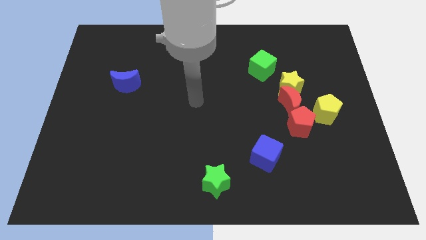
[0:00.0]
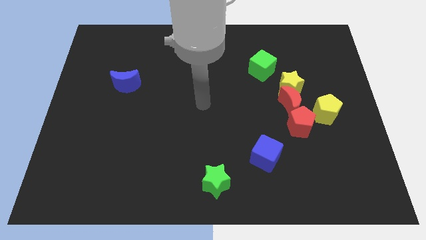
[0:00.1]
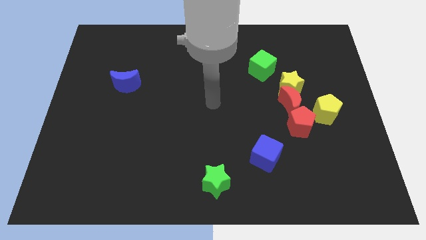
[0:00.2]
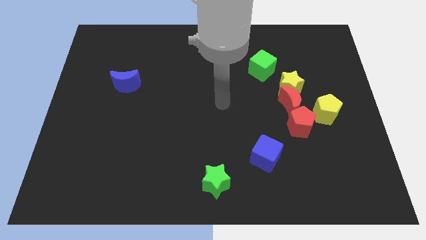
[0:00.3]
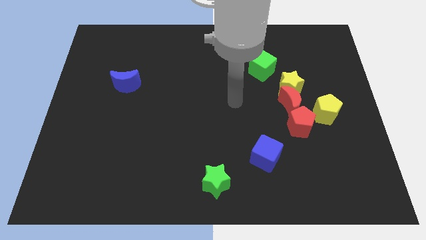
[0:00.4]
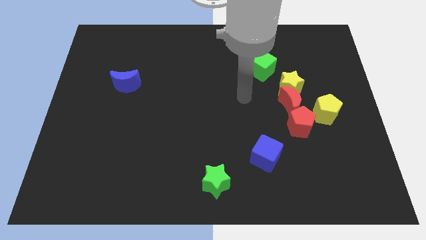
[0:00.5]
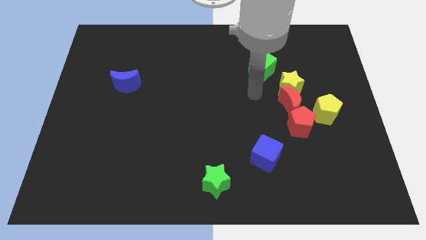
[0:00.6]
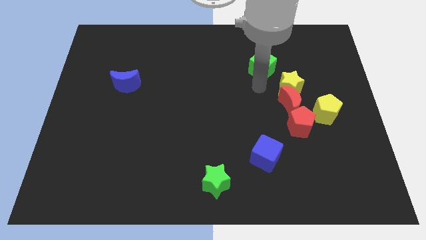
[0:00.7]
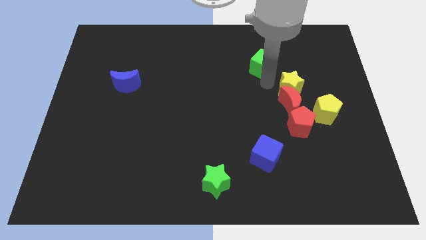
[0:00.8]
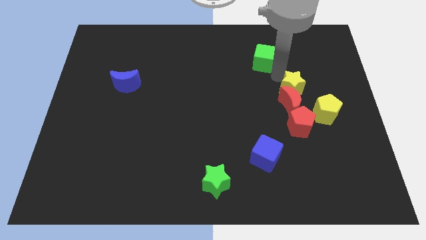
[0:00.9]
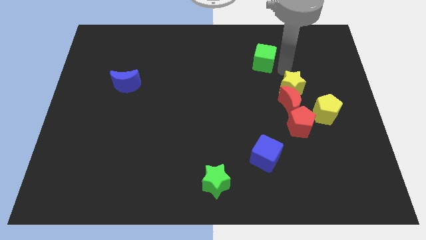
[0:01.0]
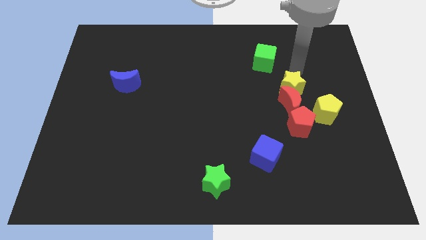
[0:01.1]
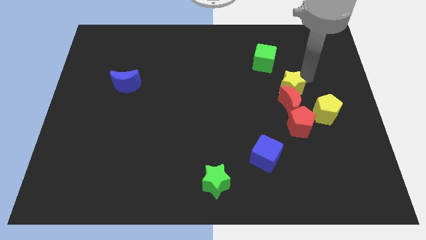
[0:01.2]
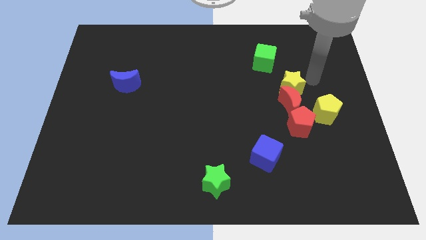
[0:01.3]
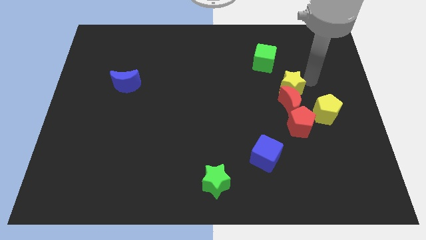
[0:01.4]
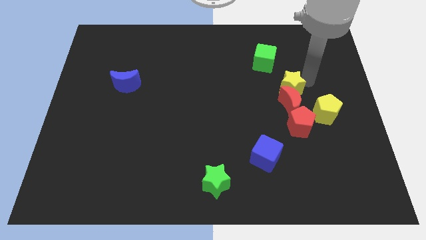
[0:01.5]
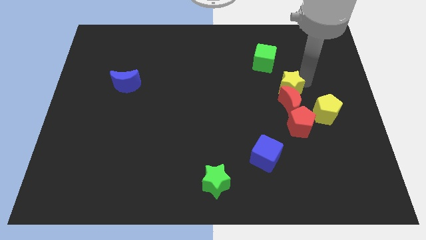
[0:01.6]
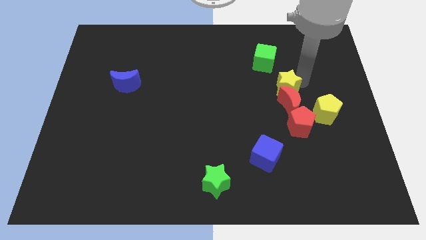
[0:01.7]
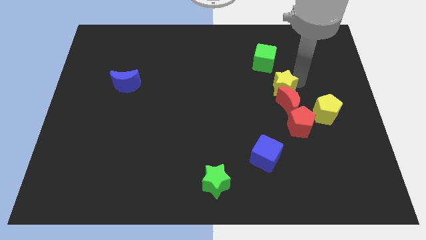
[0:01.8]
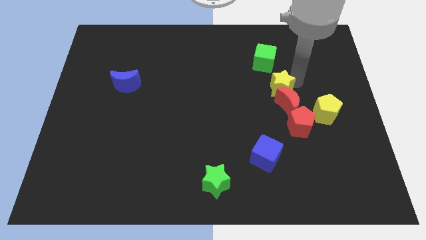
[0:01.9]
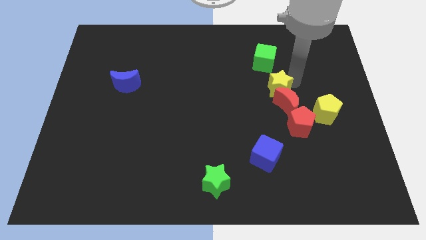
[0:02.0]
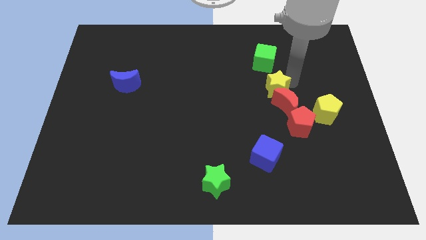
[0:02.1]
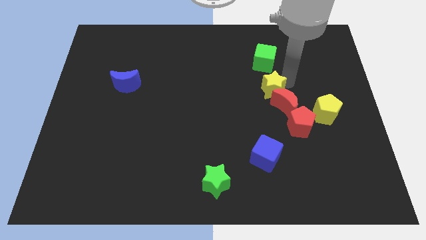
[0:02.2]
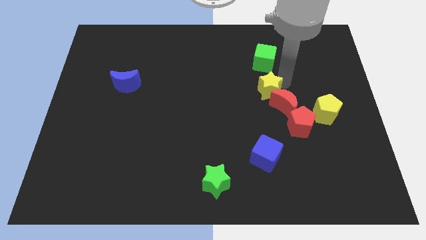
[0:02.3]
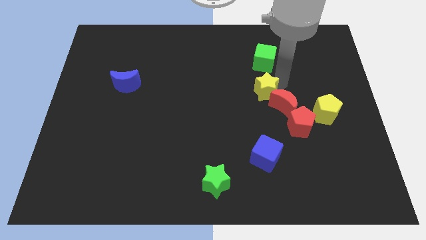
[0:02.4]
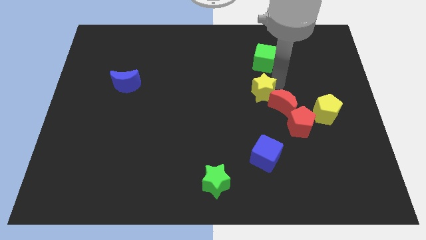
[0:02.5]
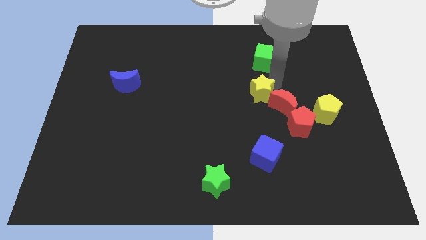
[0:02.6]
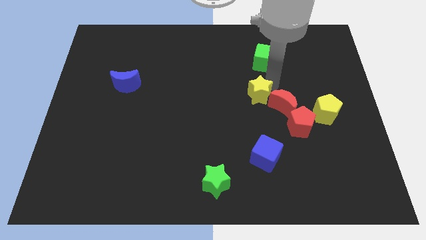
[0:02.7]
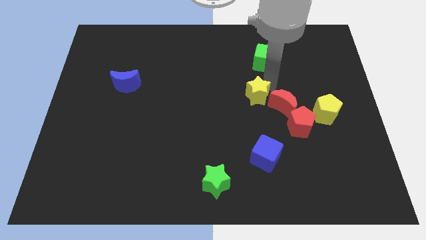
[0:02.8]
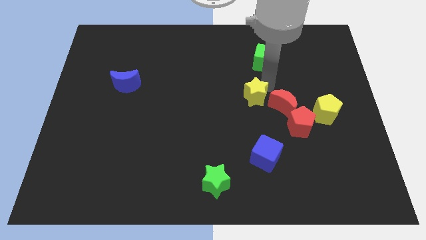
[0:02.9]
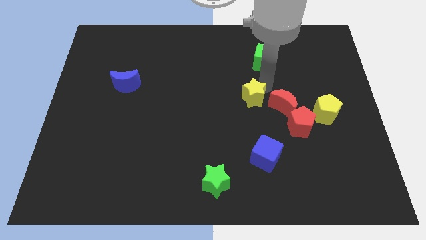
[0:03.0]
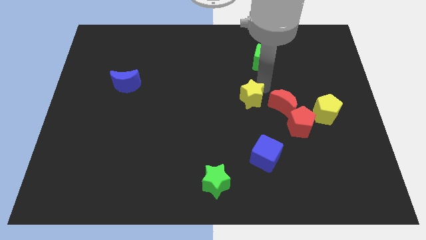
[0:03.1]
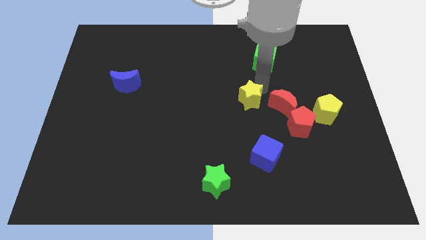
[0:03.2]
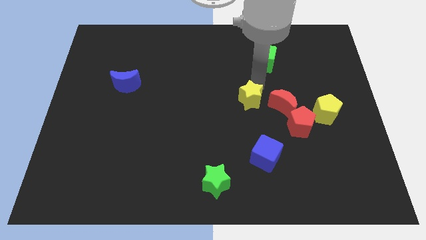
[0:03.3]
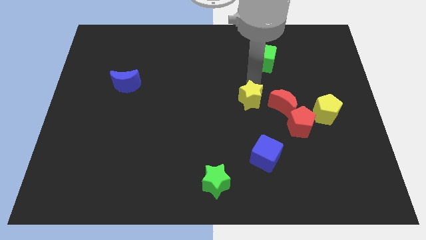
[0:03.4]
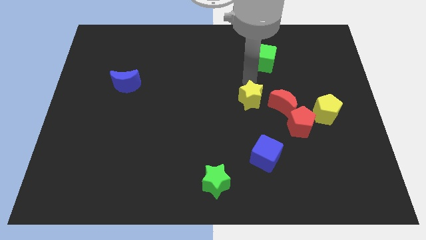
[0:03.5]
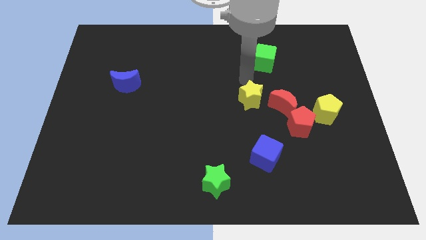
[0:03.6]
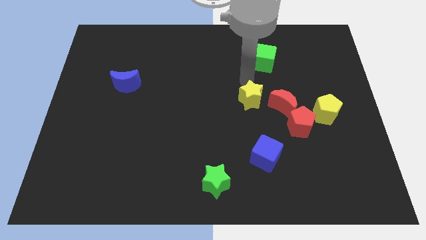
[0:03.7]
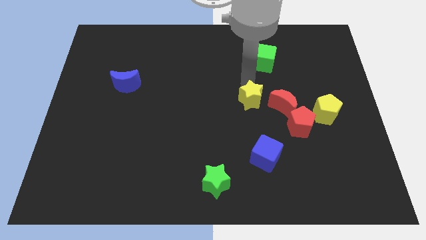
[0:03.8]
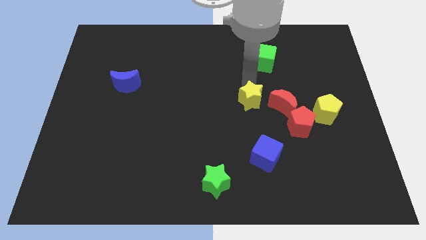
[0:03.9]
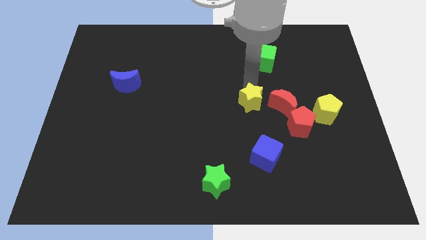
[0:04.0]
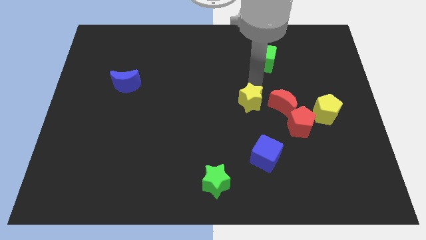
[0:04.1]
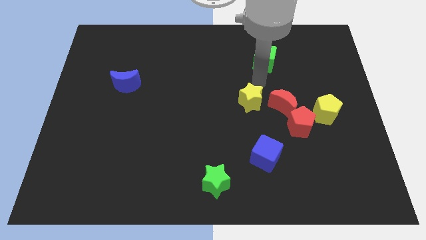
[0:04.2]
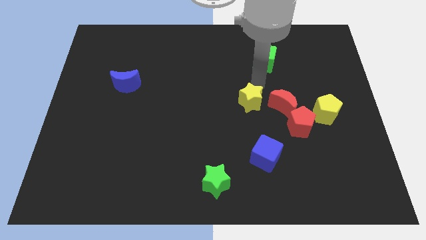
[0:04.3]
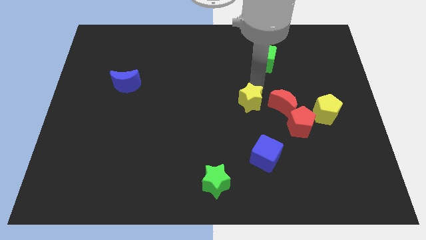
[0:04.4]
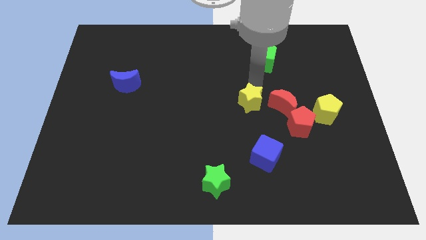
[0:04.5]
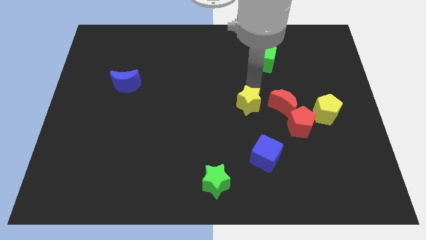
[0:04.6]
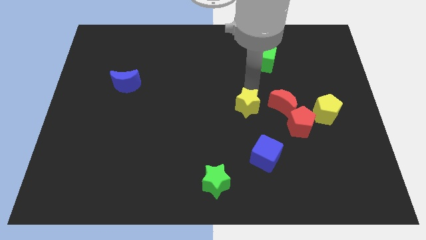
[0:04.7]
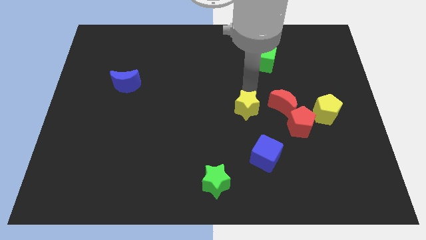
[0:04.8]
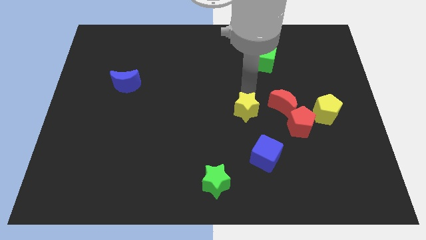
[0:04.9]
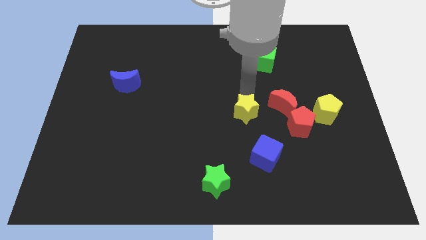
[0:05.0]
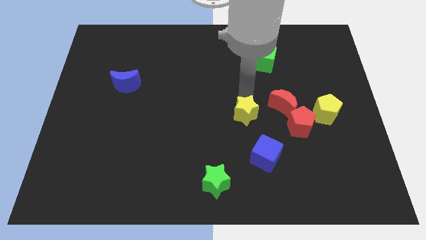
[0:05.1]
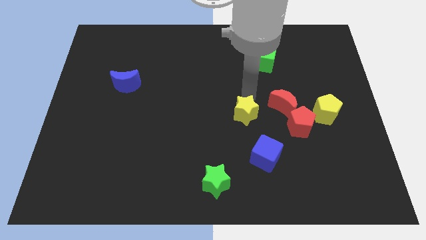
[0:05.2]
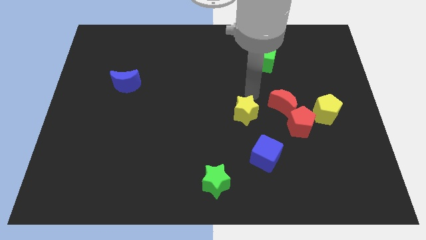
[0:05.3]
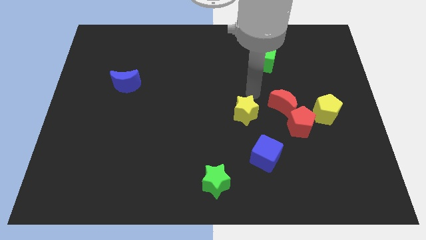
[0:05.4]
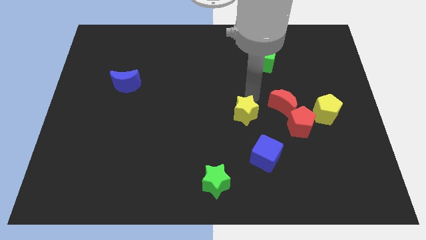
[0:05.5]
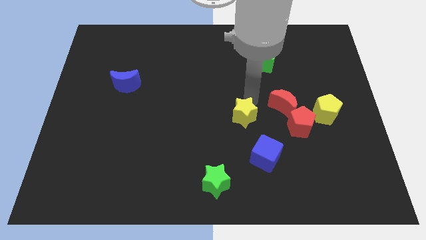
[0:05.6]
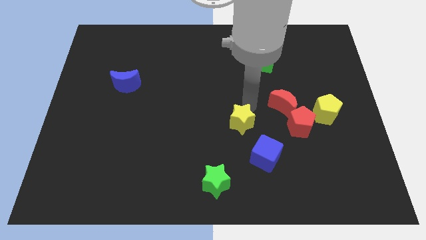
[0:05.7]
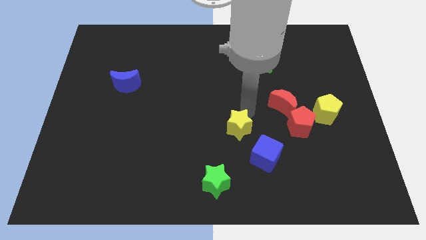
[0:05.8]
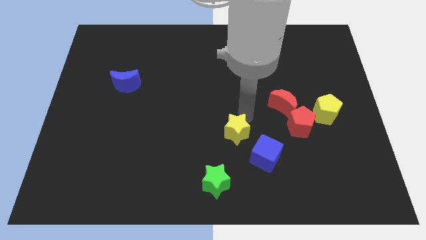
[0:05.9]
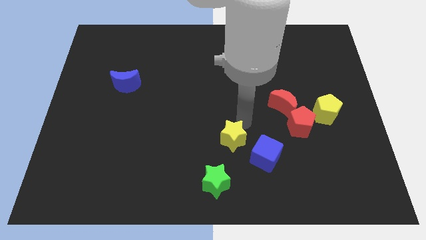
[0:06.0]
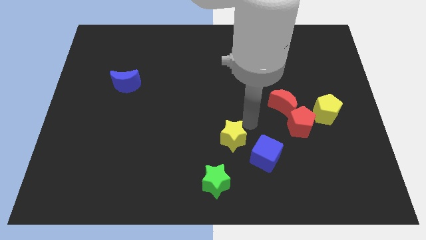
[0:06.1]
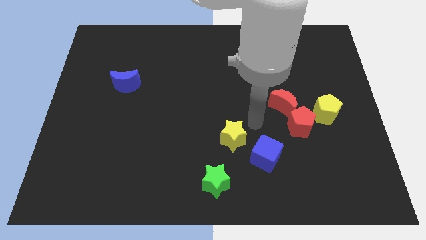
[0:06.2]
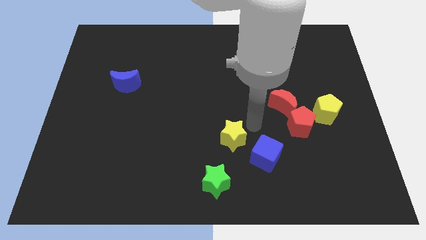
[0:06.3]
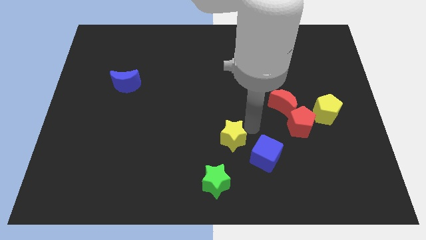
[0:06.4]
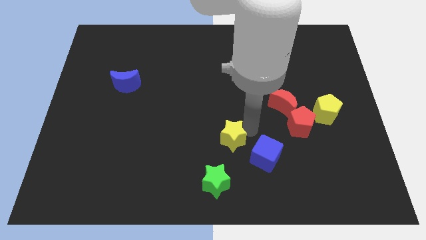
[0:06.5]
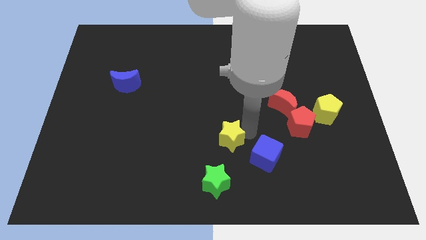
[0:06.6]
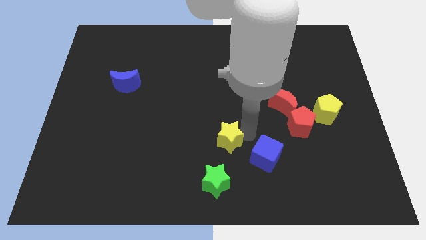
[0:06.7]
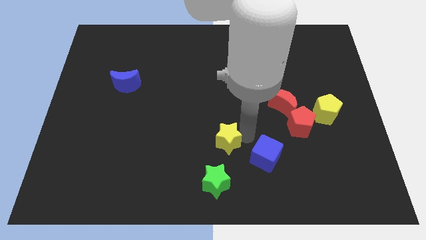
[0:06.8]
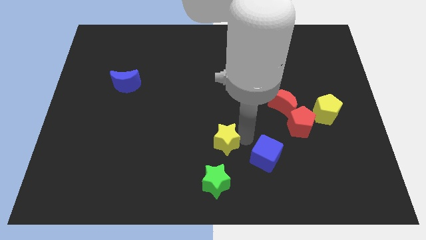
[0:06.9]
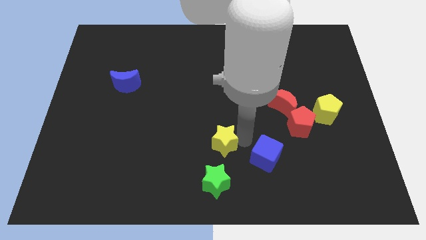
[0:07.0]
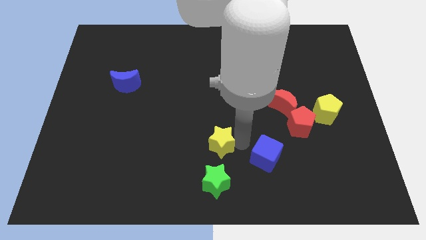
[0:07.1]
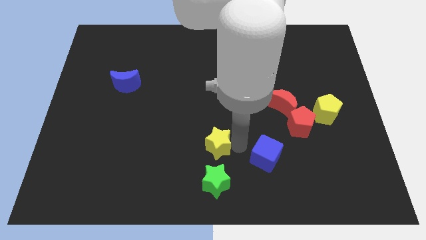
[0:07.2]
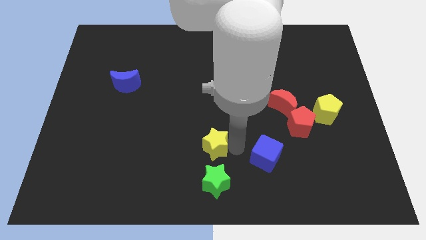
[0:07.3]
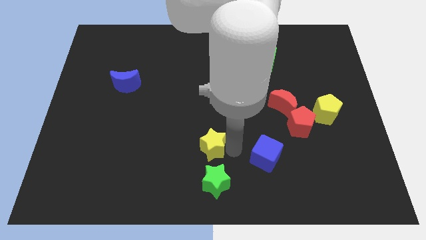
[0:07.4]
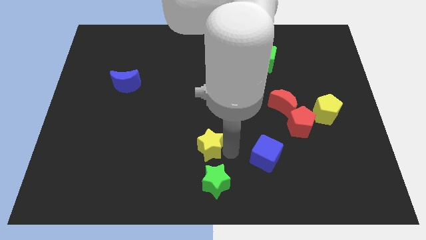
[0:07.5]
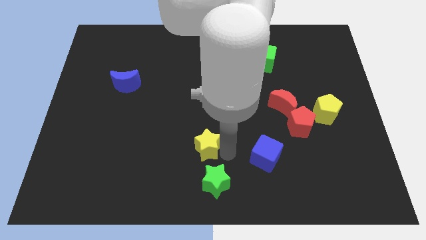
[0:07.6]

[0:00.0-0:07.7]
push the yellow star diagonally up and to the left of the green star
